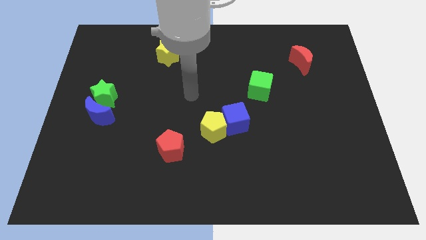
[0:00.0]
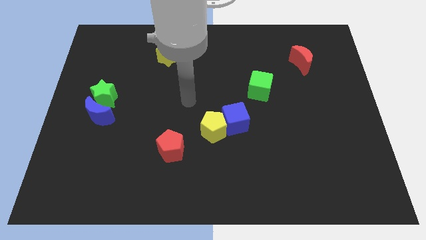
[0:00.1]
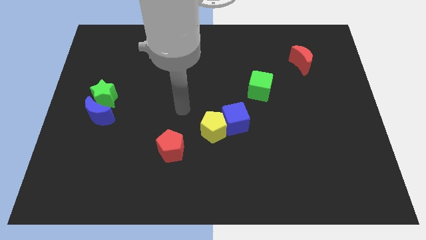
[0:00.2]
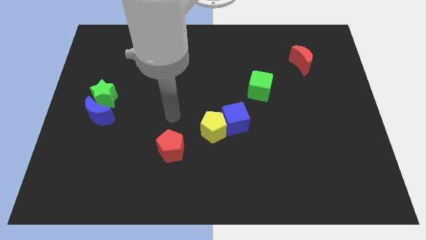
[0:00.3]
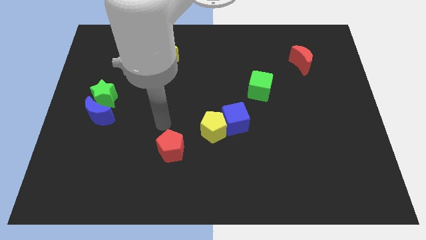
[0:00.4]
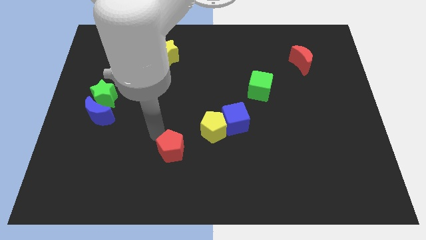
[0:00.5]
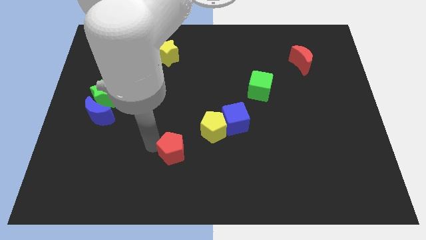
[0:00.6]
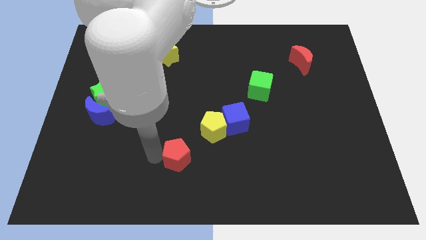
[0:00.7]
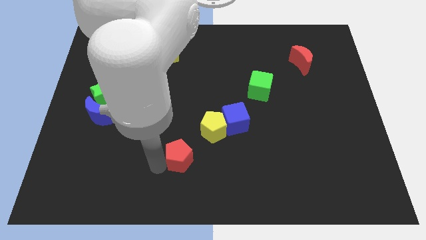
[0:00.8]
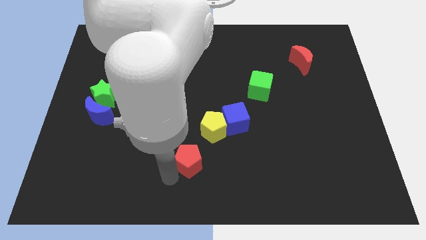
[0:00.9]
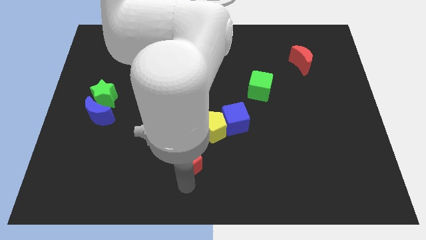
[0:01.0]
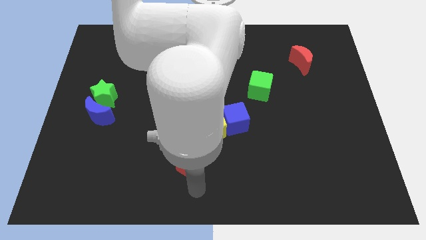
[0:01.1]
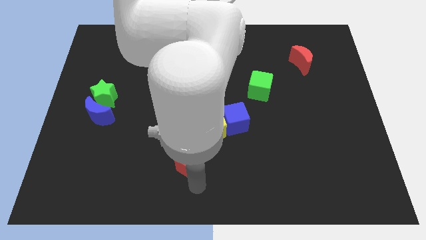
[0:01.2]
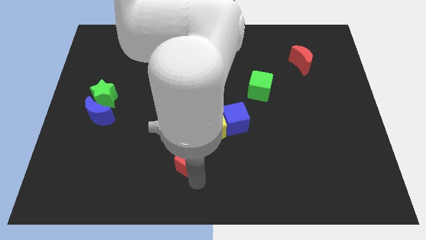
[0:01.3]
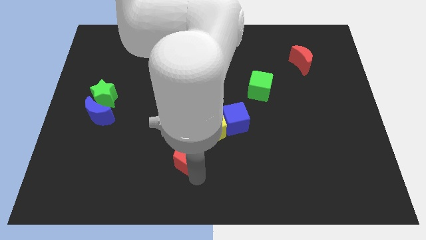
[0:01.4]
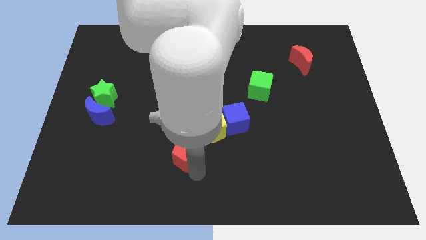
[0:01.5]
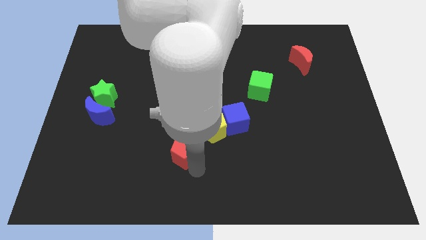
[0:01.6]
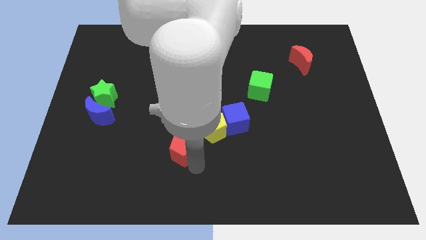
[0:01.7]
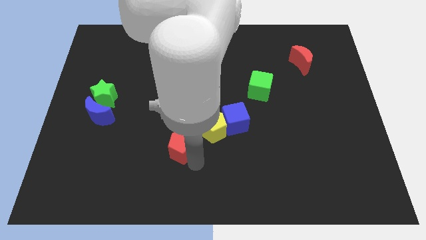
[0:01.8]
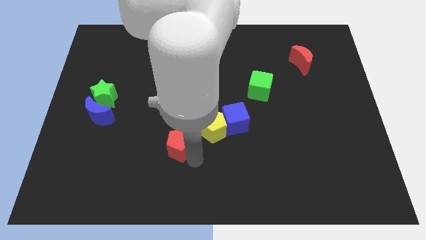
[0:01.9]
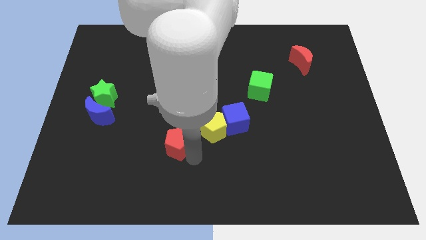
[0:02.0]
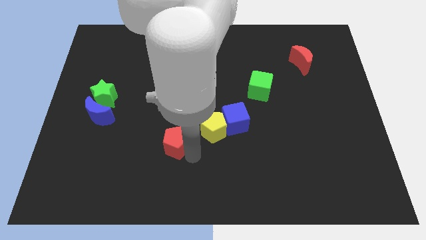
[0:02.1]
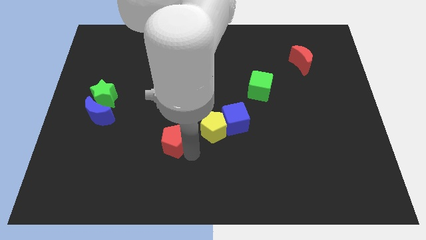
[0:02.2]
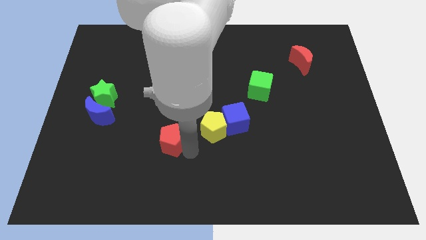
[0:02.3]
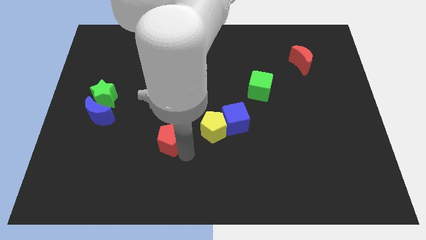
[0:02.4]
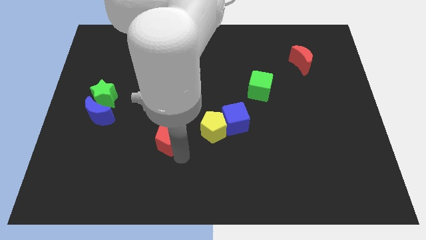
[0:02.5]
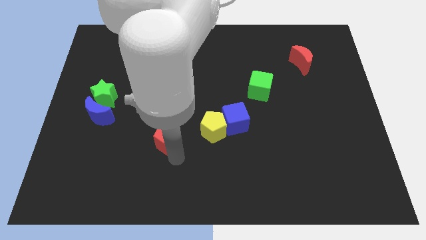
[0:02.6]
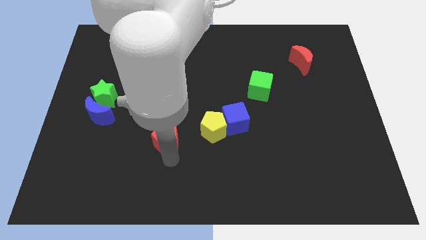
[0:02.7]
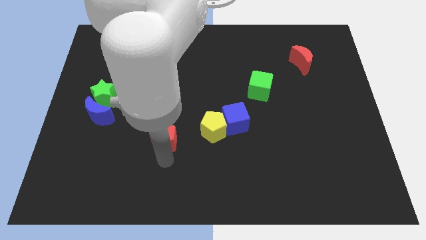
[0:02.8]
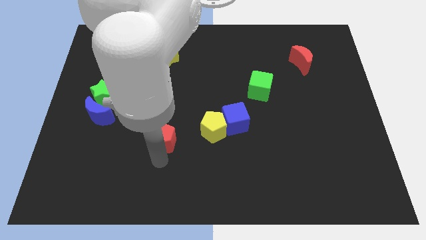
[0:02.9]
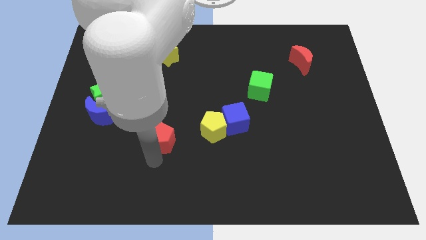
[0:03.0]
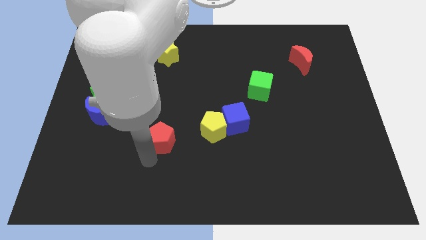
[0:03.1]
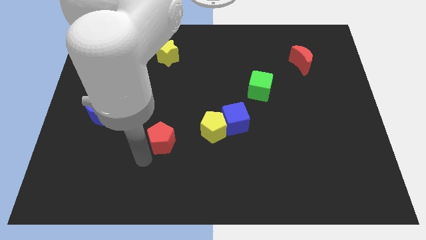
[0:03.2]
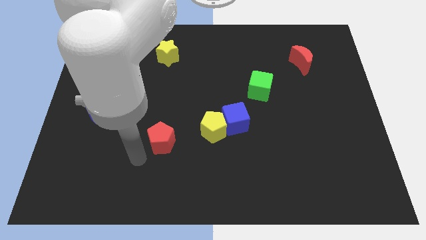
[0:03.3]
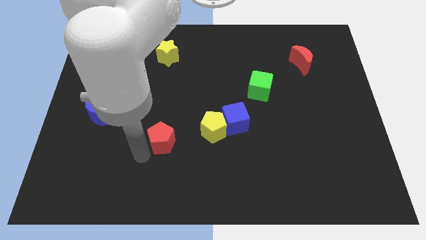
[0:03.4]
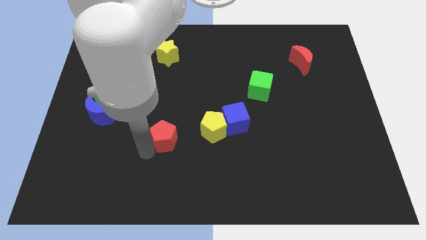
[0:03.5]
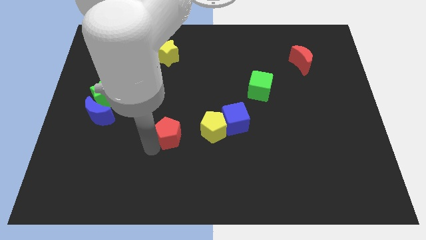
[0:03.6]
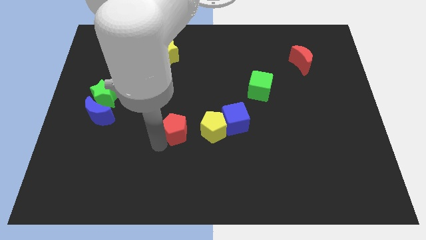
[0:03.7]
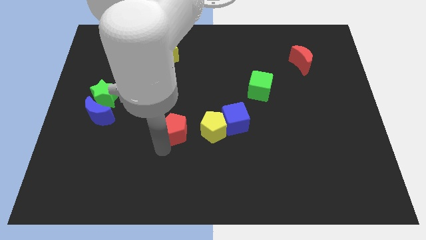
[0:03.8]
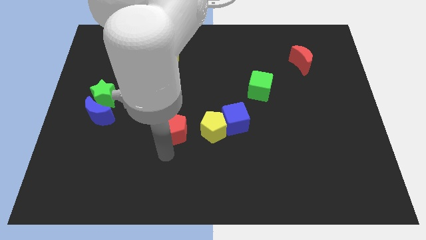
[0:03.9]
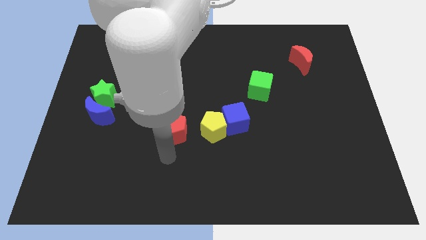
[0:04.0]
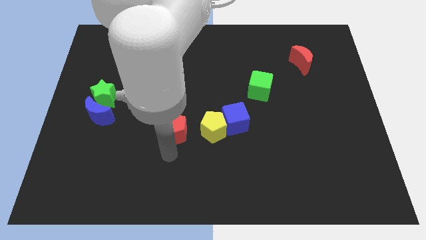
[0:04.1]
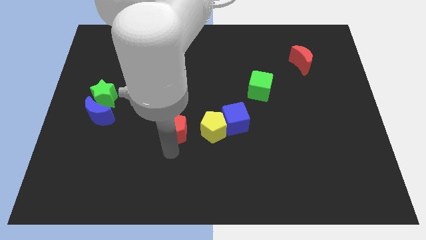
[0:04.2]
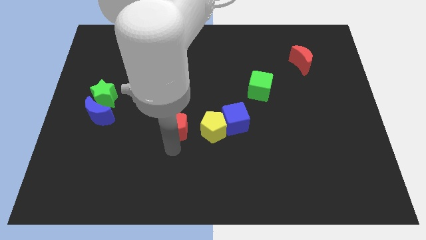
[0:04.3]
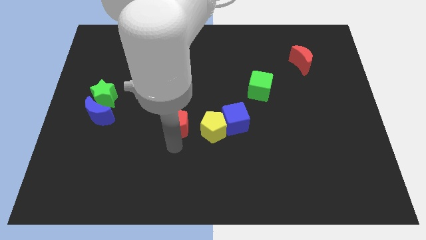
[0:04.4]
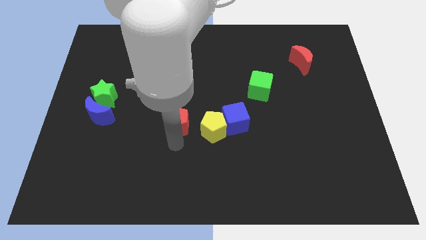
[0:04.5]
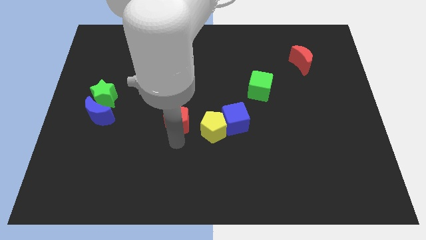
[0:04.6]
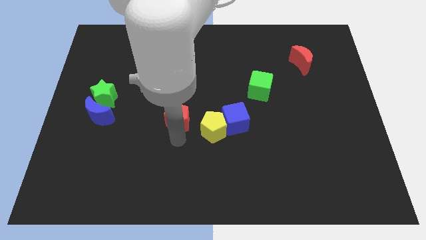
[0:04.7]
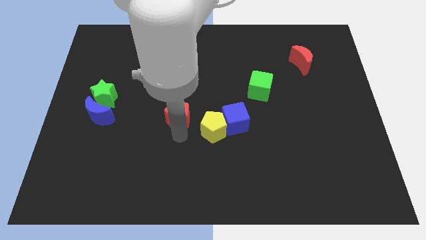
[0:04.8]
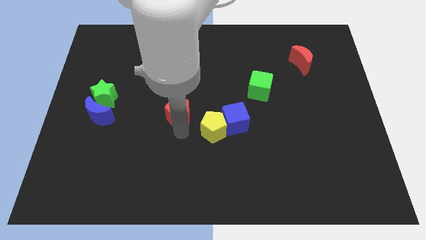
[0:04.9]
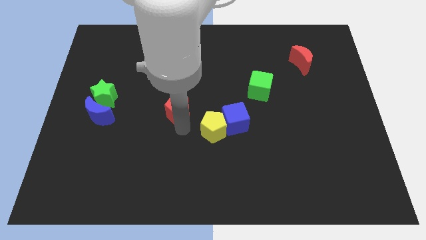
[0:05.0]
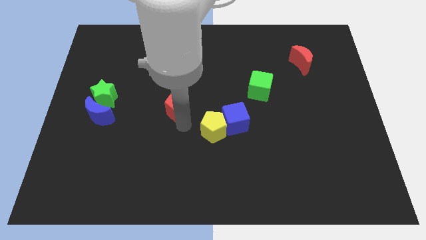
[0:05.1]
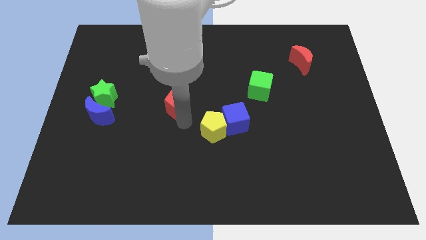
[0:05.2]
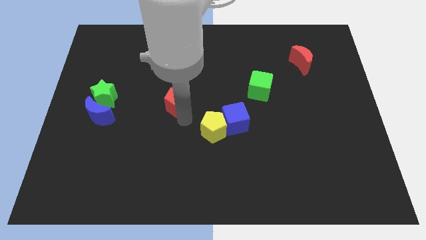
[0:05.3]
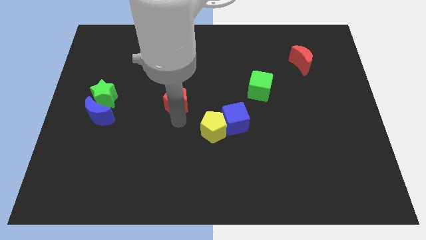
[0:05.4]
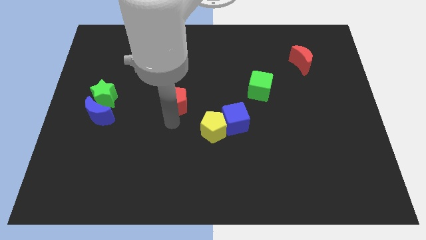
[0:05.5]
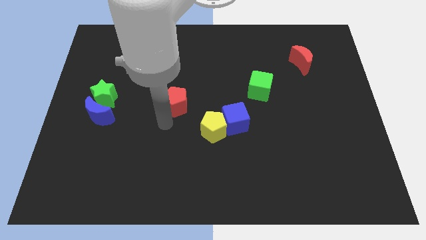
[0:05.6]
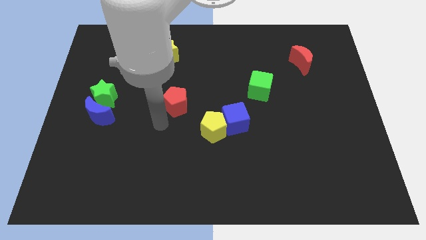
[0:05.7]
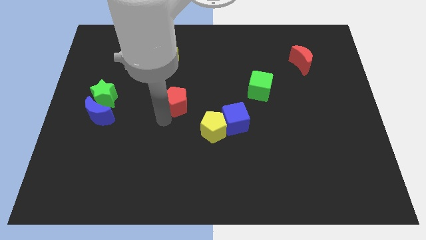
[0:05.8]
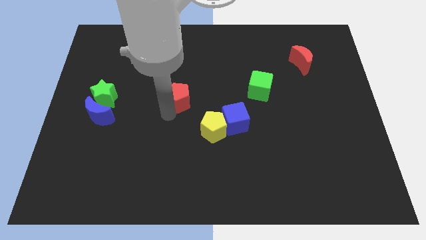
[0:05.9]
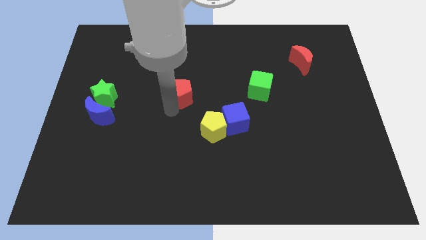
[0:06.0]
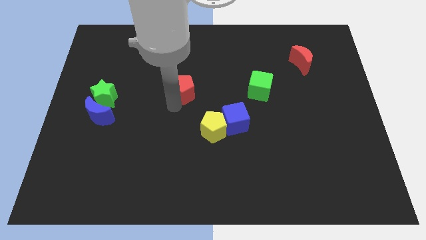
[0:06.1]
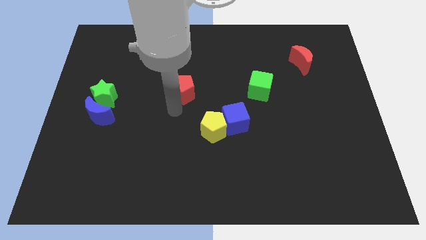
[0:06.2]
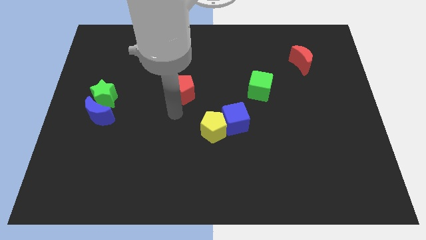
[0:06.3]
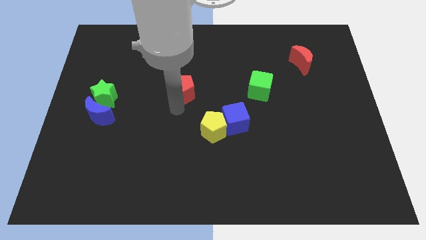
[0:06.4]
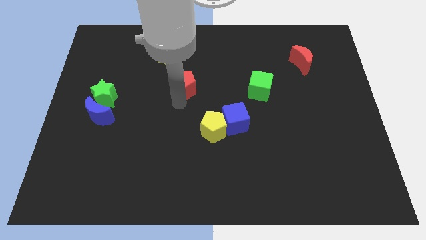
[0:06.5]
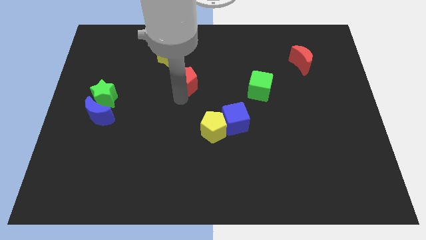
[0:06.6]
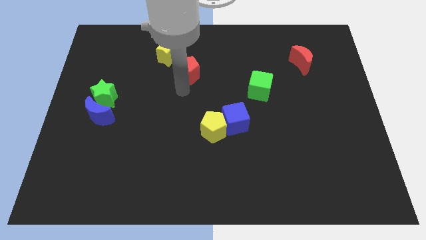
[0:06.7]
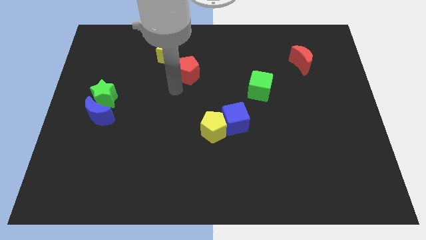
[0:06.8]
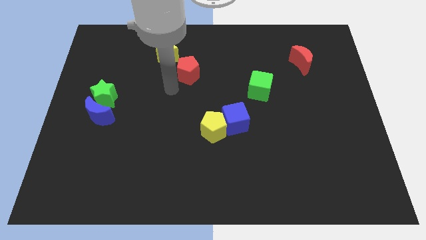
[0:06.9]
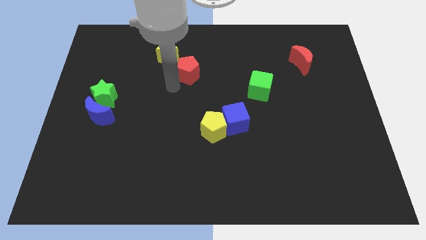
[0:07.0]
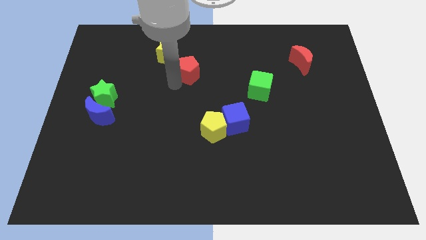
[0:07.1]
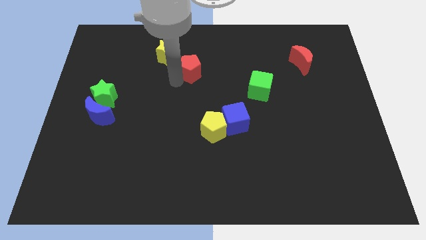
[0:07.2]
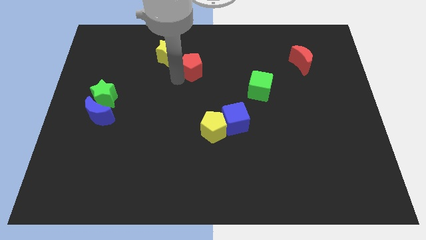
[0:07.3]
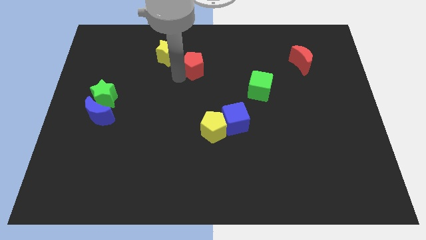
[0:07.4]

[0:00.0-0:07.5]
push the red pentagon to the right of the yellow star
